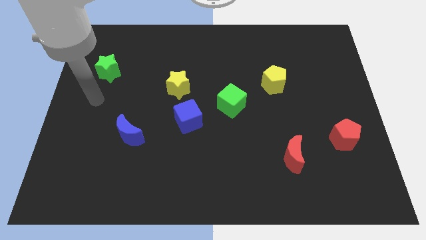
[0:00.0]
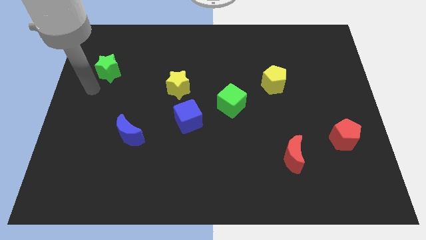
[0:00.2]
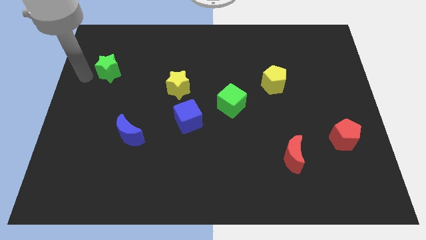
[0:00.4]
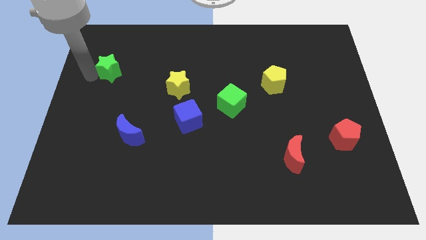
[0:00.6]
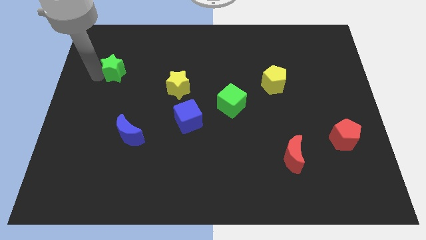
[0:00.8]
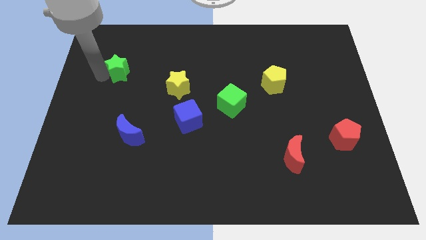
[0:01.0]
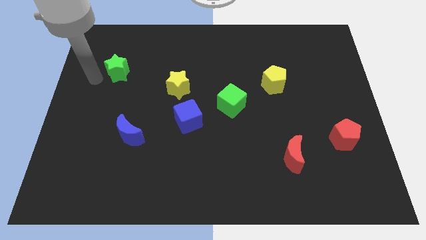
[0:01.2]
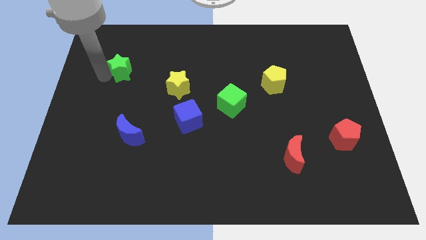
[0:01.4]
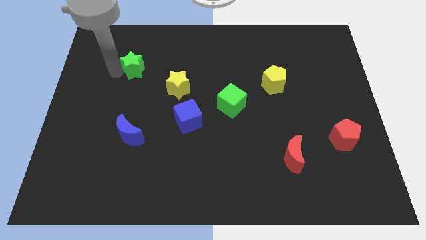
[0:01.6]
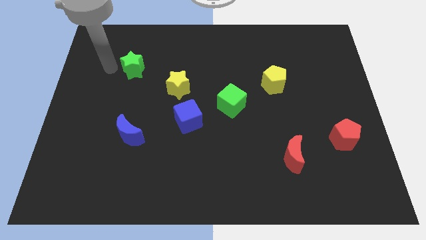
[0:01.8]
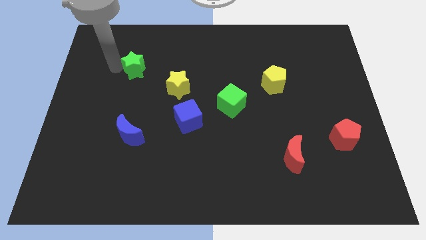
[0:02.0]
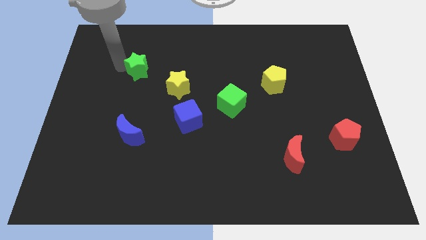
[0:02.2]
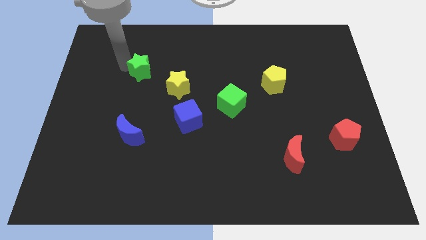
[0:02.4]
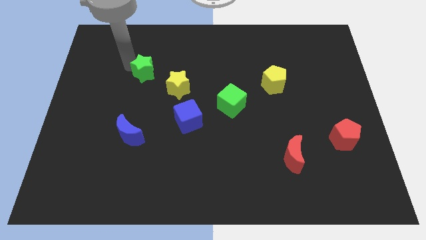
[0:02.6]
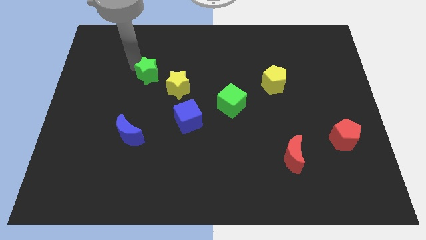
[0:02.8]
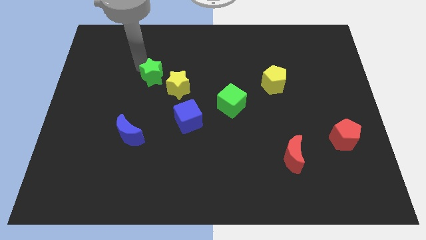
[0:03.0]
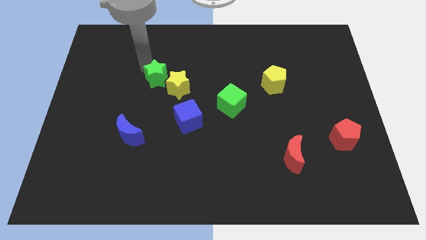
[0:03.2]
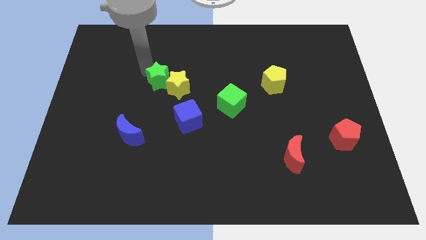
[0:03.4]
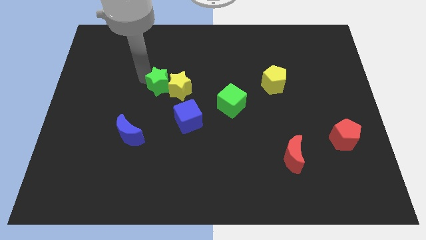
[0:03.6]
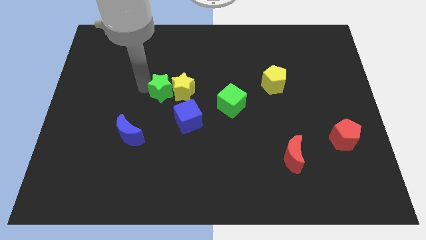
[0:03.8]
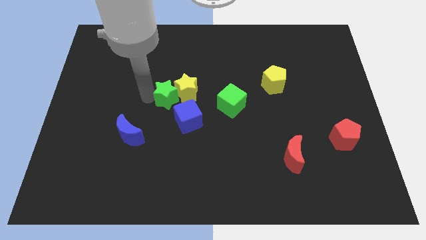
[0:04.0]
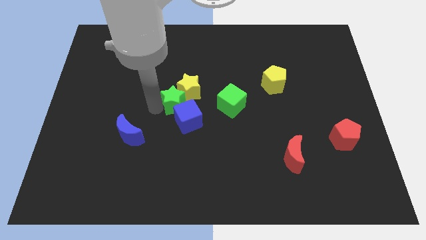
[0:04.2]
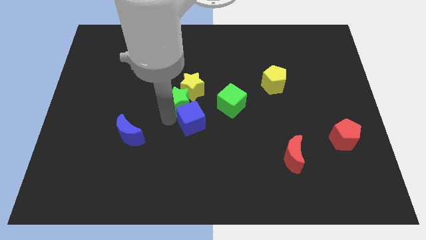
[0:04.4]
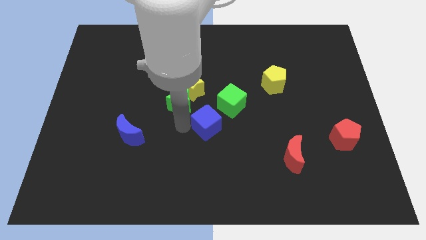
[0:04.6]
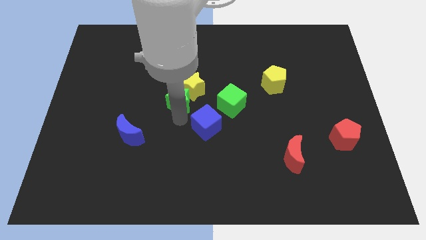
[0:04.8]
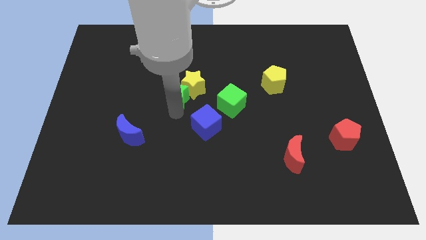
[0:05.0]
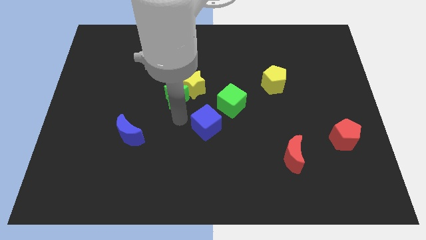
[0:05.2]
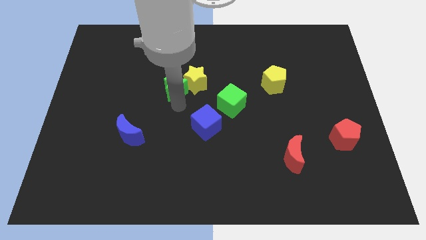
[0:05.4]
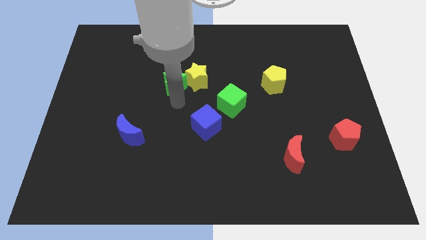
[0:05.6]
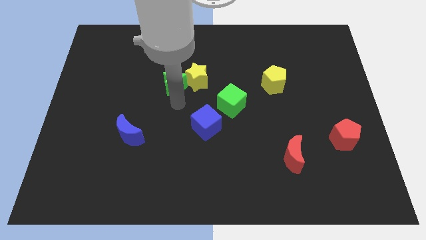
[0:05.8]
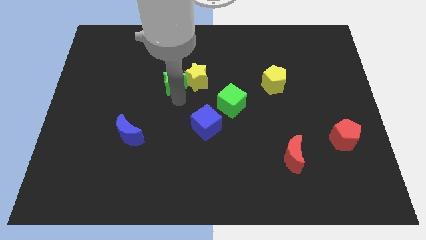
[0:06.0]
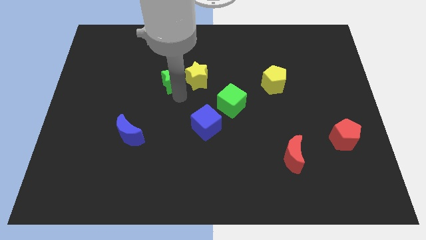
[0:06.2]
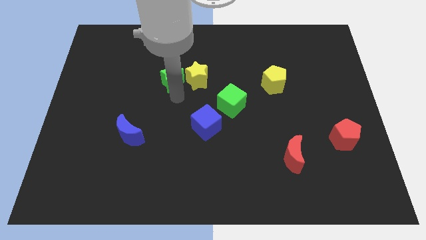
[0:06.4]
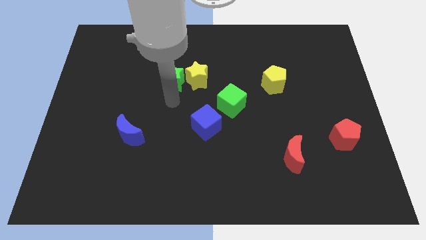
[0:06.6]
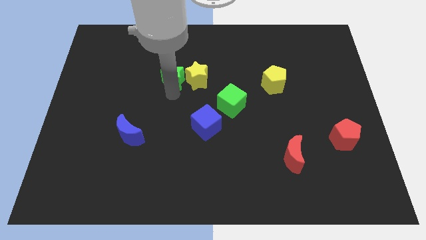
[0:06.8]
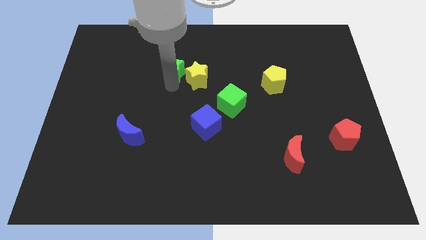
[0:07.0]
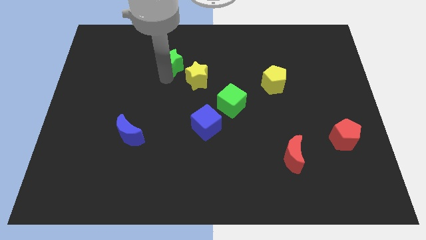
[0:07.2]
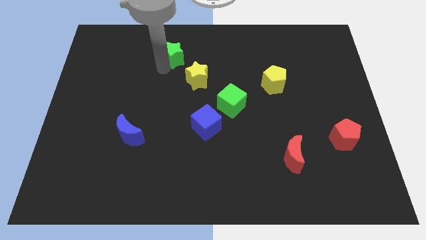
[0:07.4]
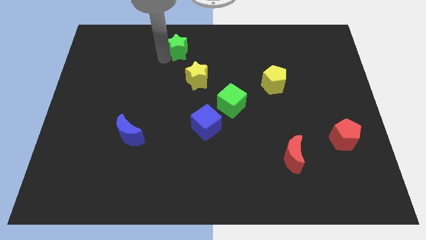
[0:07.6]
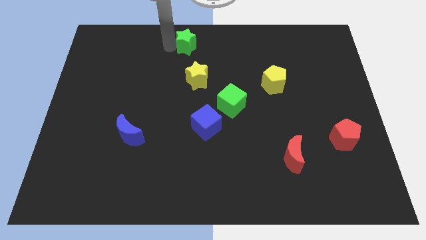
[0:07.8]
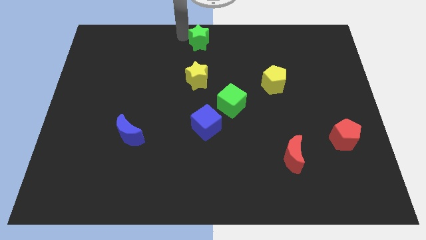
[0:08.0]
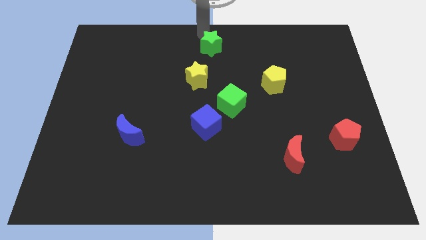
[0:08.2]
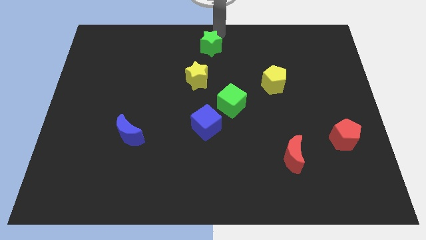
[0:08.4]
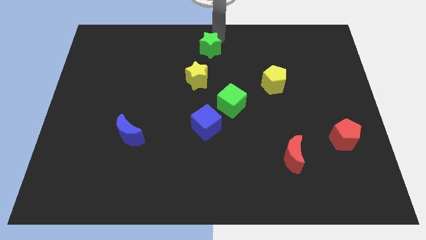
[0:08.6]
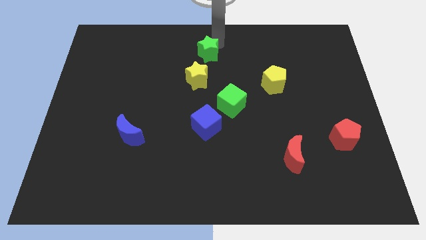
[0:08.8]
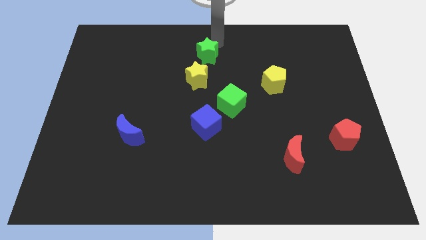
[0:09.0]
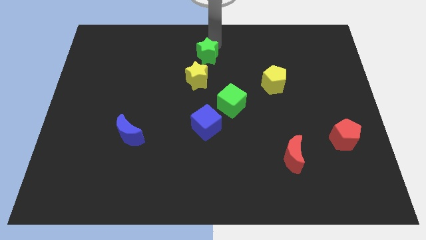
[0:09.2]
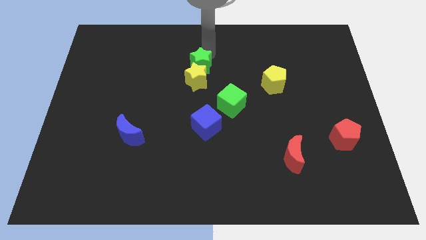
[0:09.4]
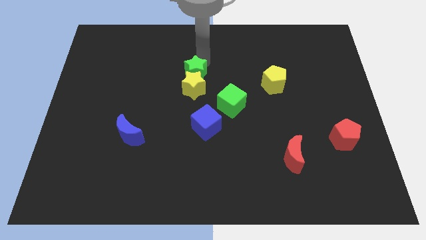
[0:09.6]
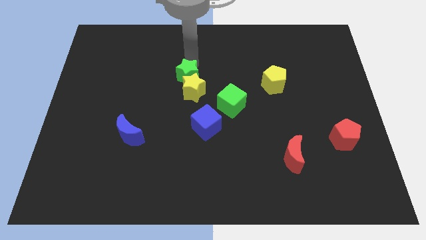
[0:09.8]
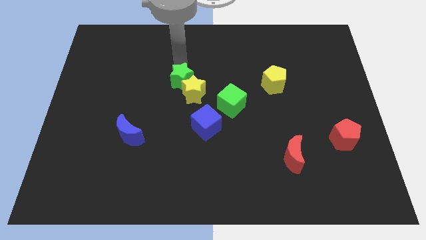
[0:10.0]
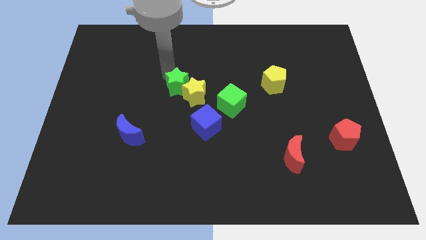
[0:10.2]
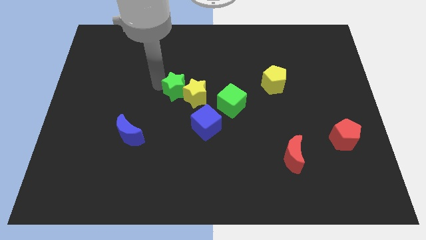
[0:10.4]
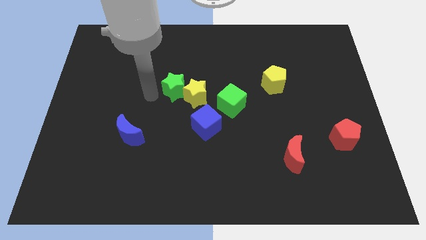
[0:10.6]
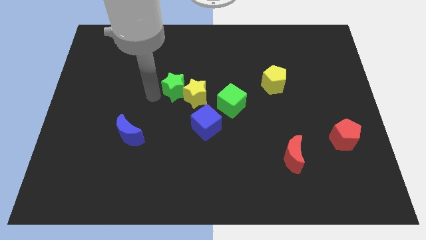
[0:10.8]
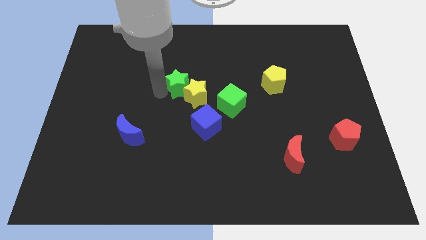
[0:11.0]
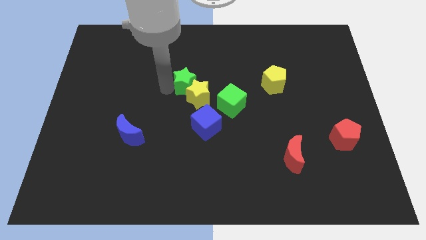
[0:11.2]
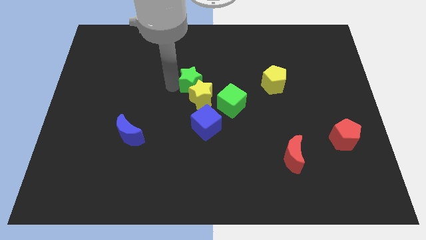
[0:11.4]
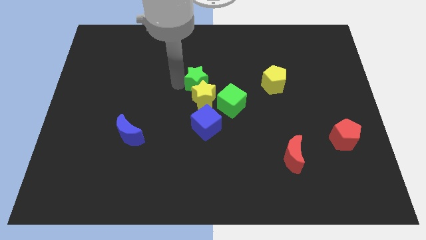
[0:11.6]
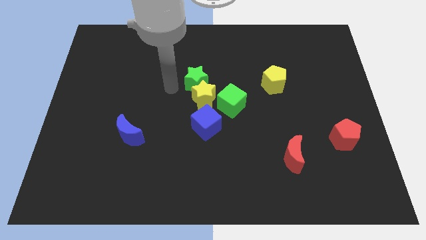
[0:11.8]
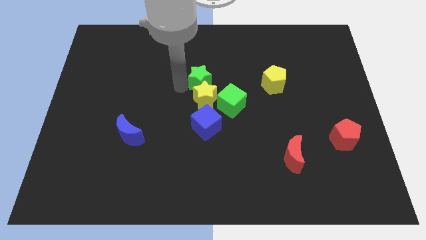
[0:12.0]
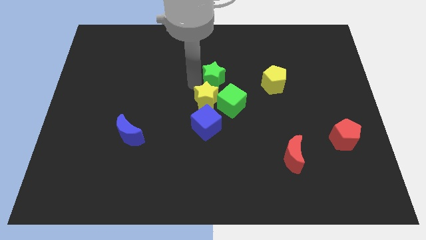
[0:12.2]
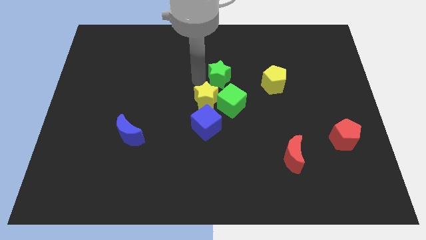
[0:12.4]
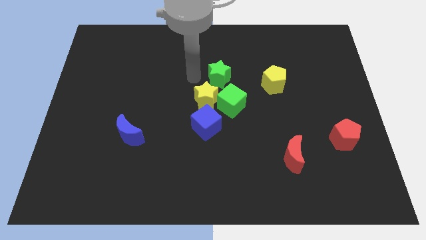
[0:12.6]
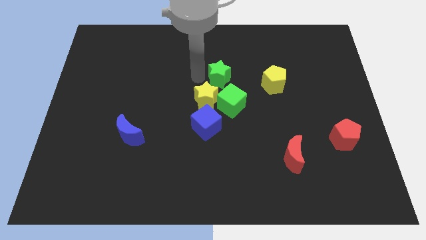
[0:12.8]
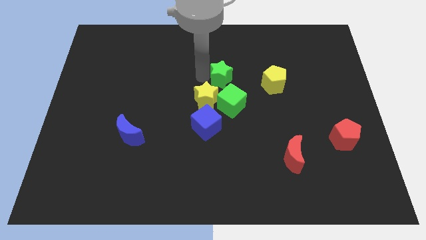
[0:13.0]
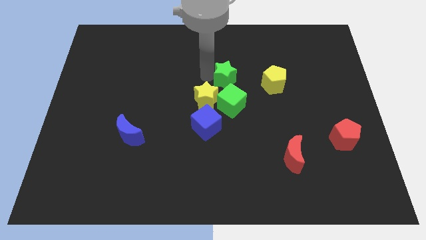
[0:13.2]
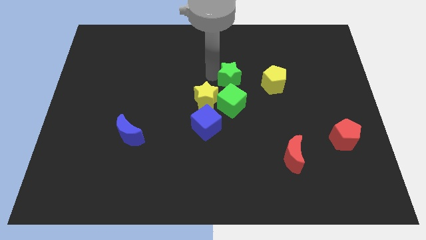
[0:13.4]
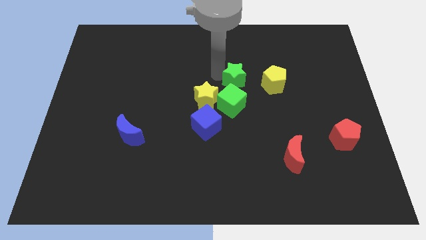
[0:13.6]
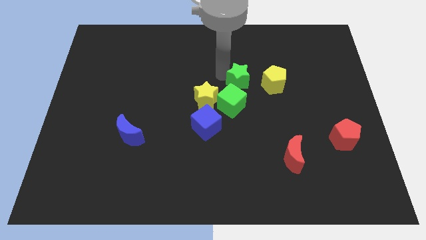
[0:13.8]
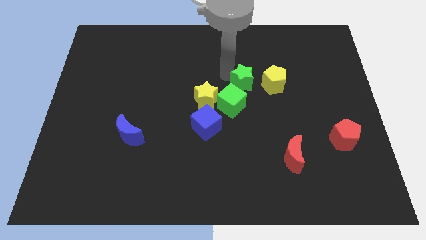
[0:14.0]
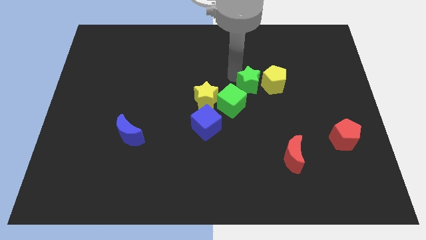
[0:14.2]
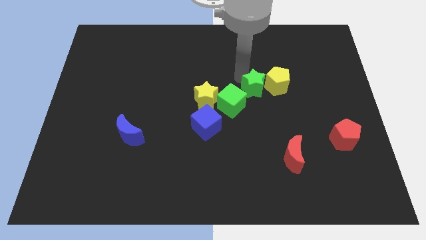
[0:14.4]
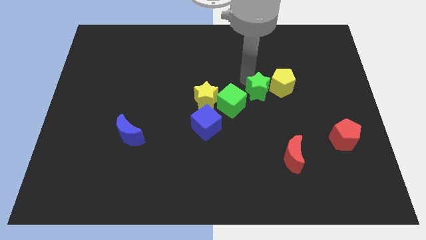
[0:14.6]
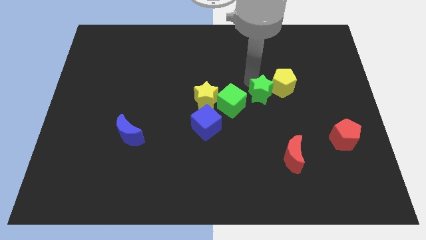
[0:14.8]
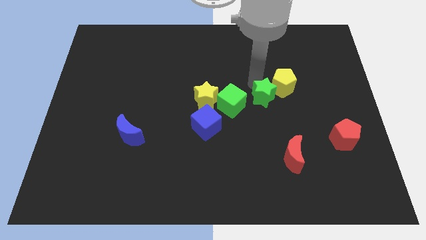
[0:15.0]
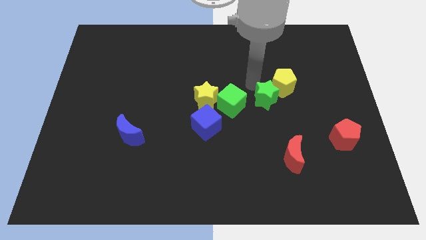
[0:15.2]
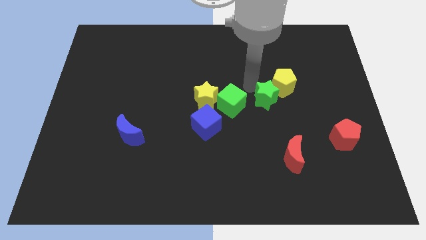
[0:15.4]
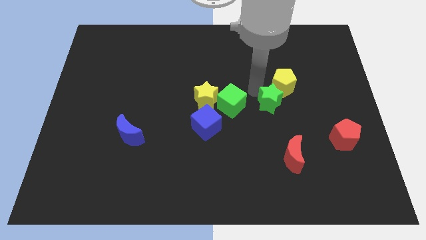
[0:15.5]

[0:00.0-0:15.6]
slide the green star to the top side of the red moon
